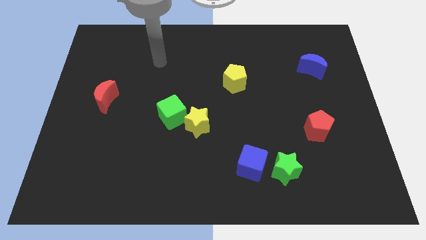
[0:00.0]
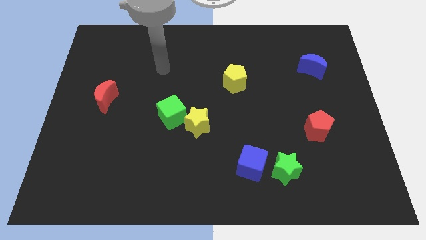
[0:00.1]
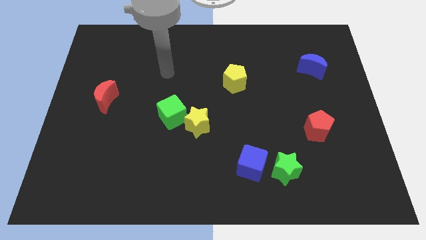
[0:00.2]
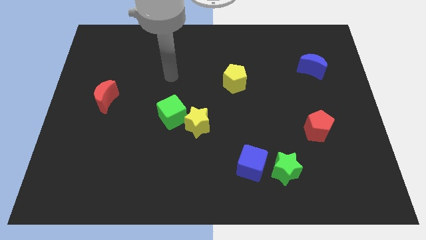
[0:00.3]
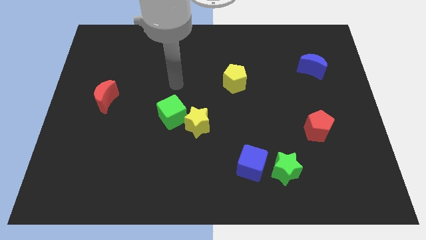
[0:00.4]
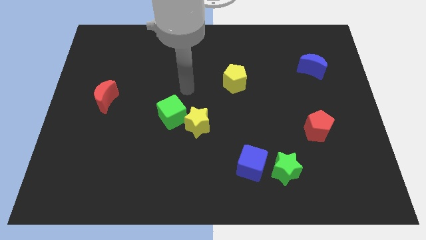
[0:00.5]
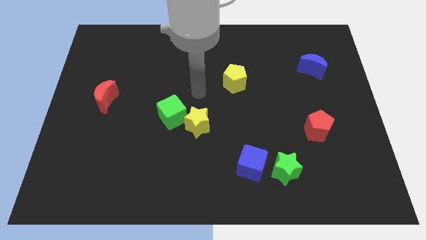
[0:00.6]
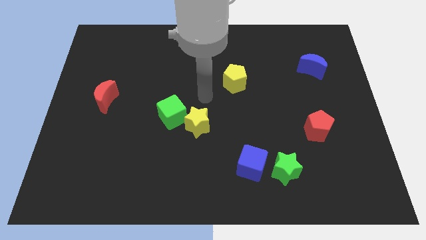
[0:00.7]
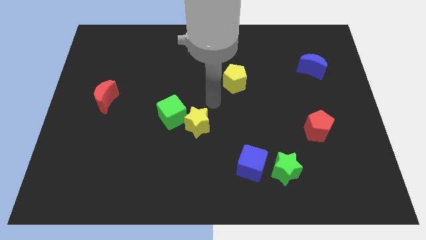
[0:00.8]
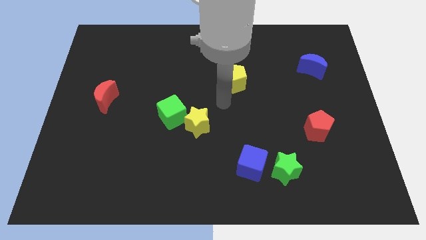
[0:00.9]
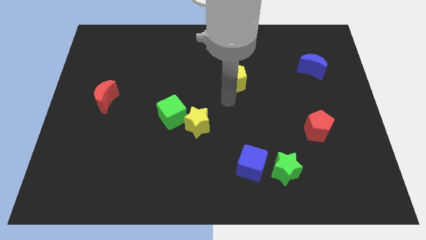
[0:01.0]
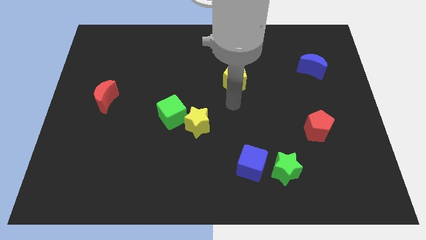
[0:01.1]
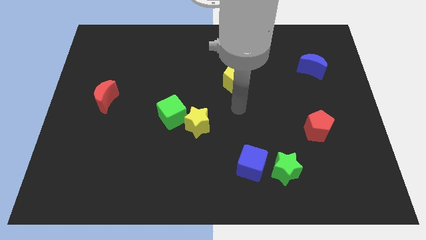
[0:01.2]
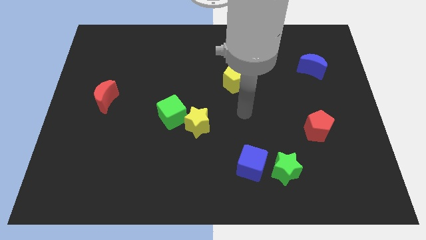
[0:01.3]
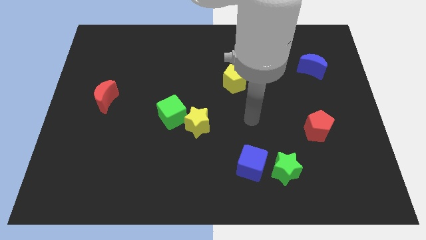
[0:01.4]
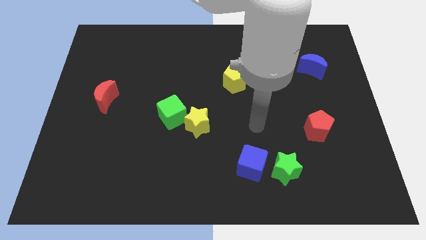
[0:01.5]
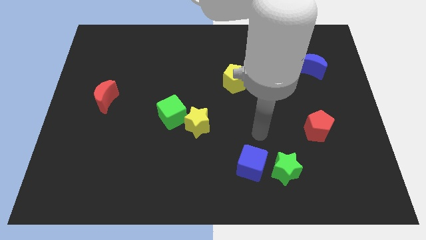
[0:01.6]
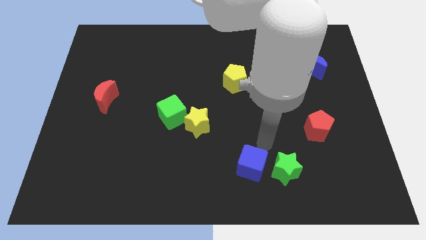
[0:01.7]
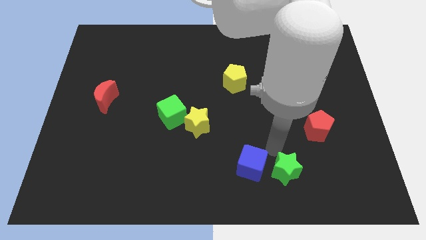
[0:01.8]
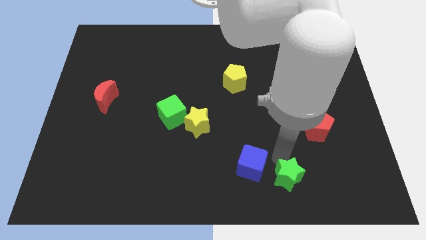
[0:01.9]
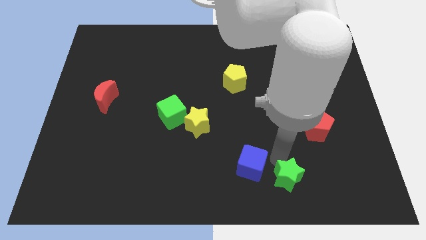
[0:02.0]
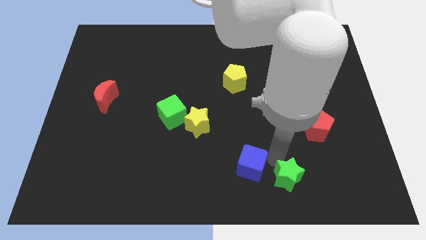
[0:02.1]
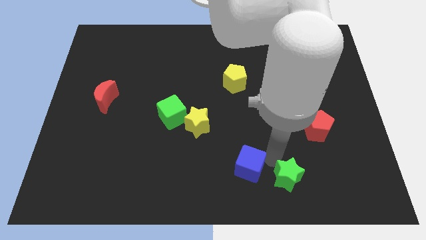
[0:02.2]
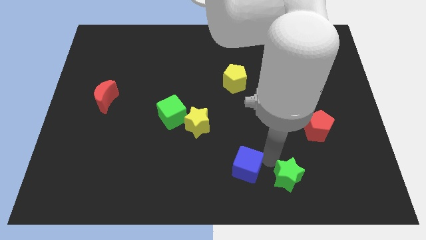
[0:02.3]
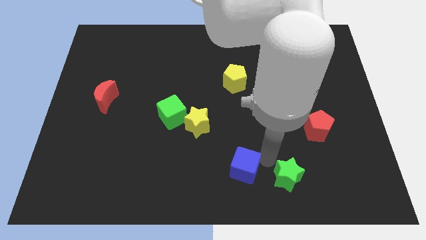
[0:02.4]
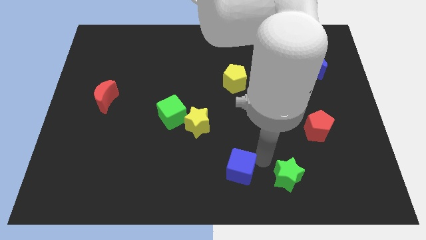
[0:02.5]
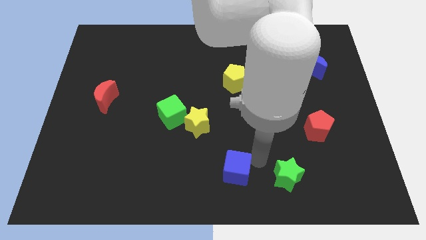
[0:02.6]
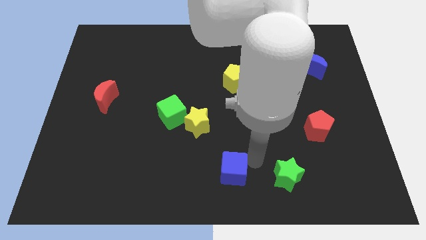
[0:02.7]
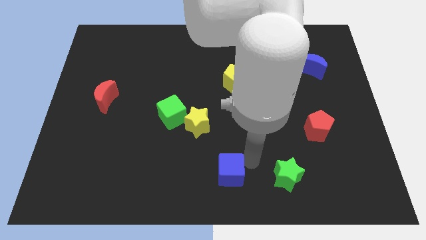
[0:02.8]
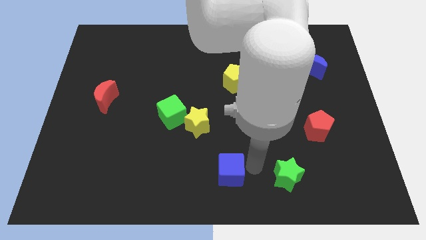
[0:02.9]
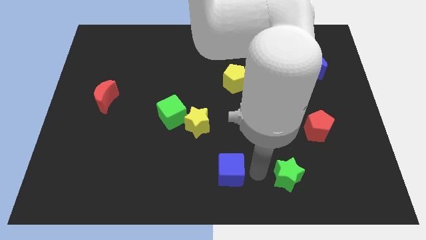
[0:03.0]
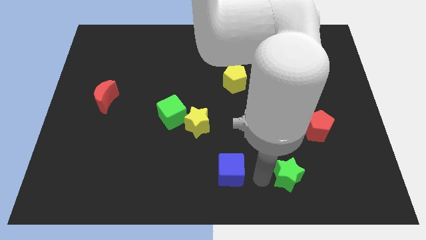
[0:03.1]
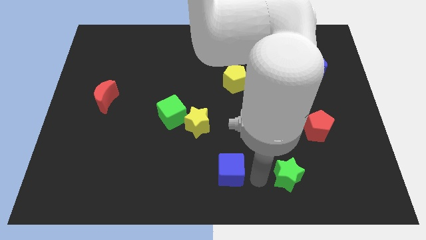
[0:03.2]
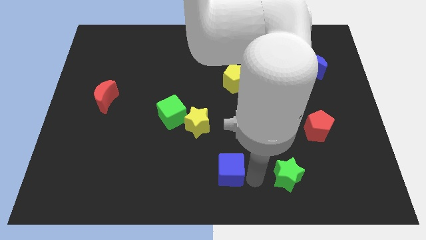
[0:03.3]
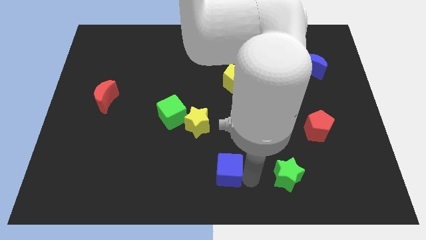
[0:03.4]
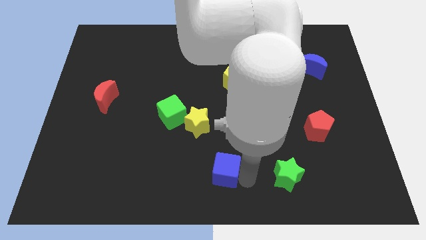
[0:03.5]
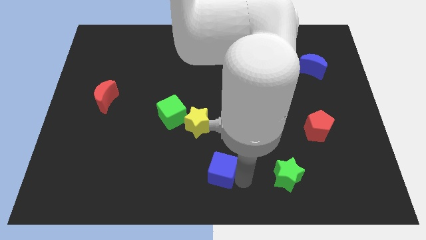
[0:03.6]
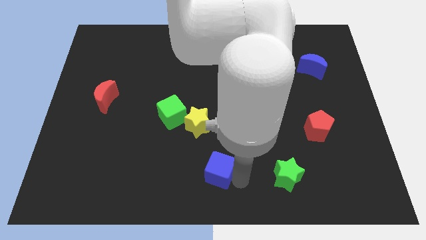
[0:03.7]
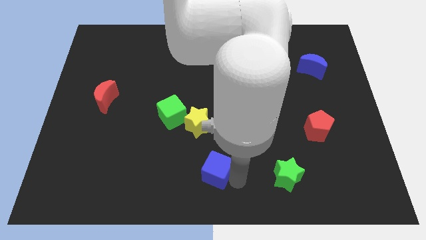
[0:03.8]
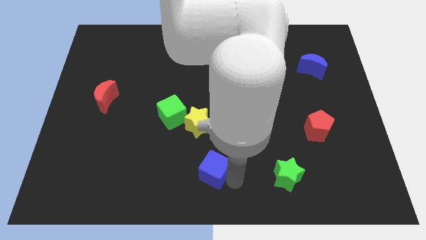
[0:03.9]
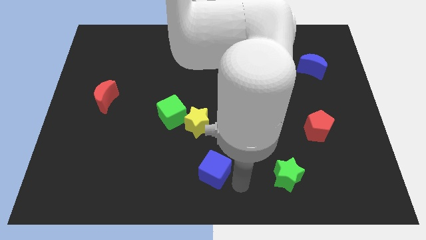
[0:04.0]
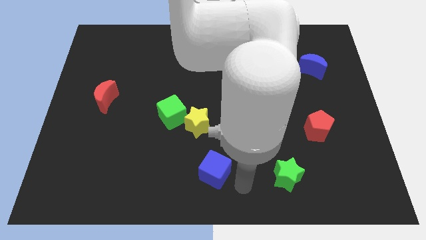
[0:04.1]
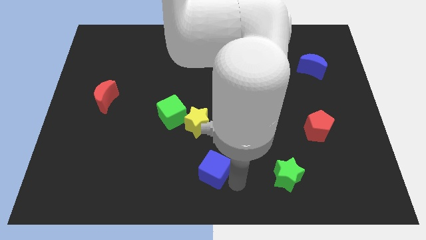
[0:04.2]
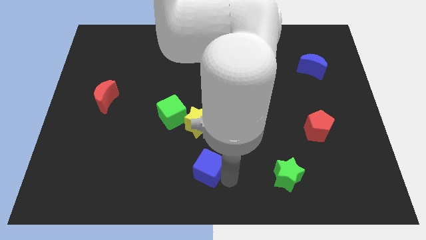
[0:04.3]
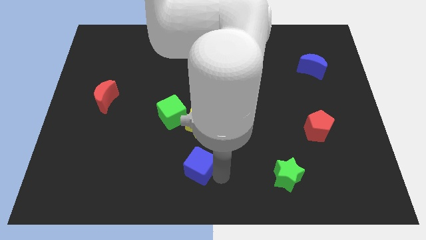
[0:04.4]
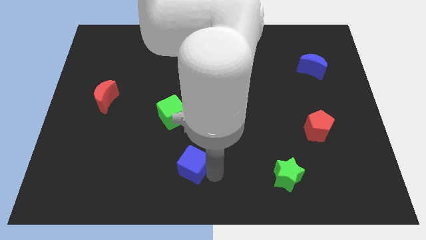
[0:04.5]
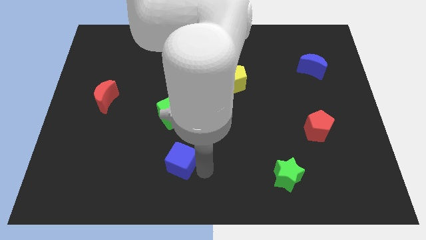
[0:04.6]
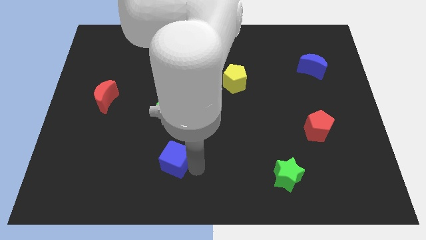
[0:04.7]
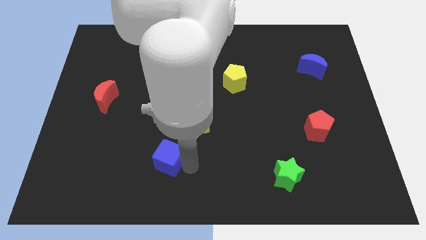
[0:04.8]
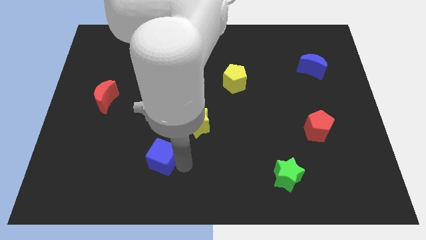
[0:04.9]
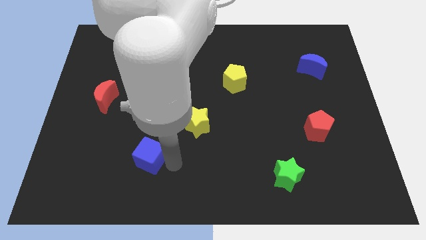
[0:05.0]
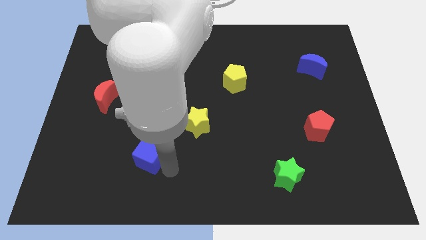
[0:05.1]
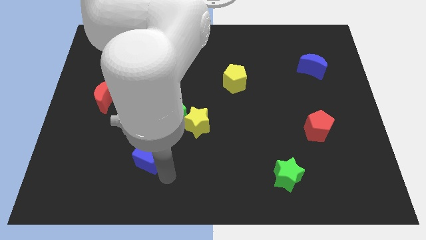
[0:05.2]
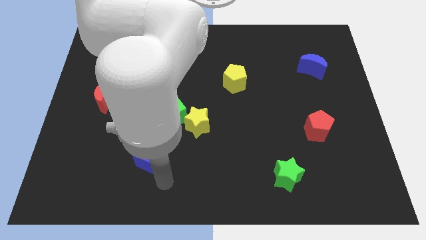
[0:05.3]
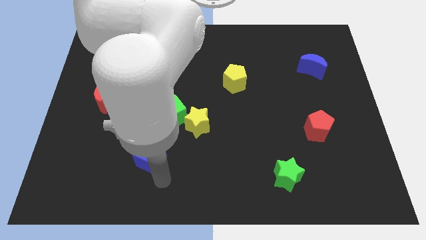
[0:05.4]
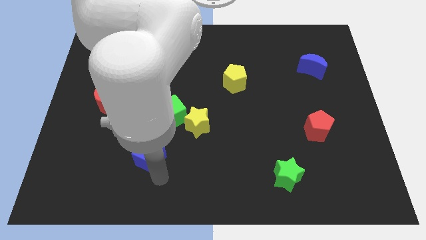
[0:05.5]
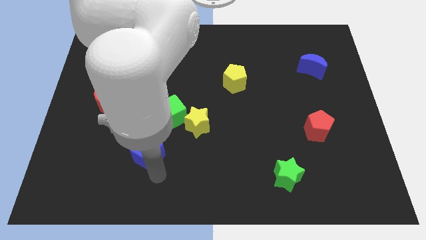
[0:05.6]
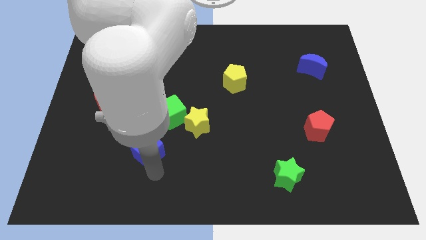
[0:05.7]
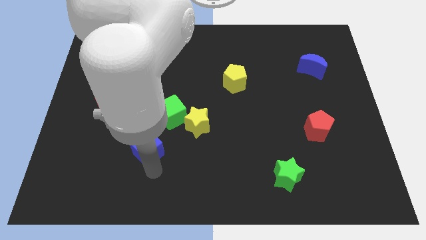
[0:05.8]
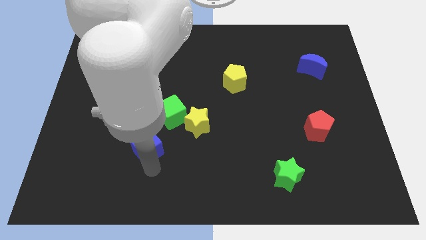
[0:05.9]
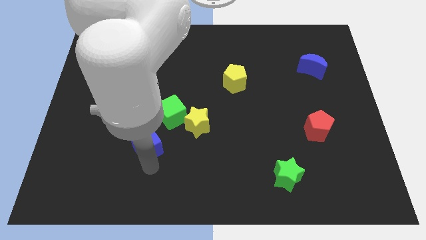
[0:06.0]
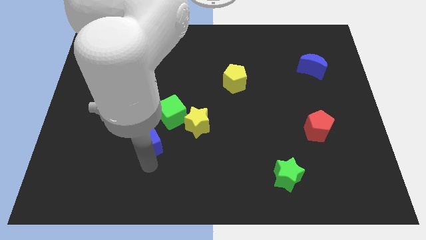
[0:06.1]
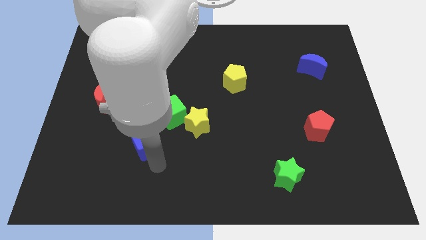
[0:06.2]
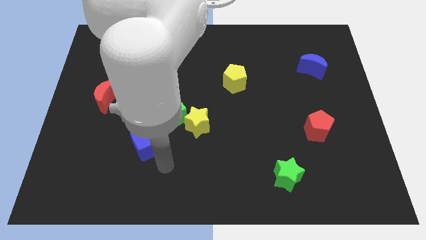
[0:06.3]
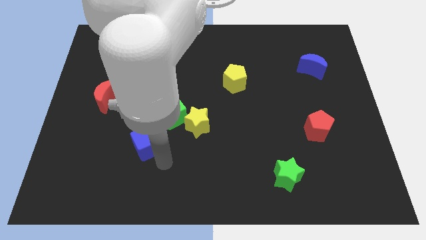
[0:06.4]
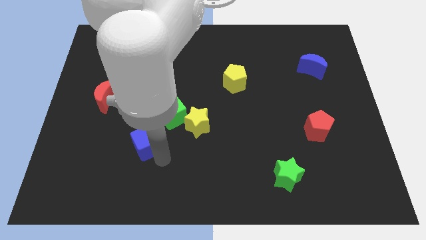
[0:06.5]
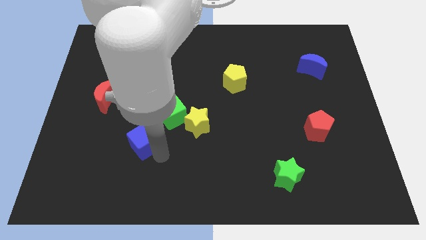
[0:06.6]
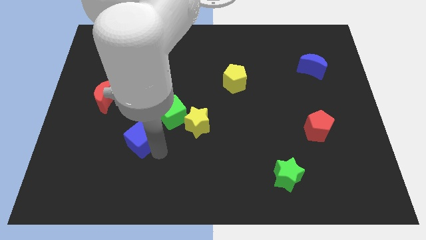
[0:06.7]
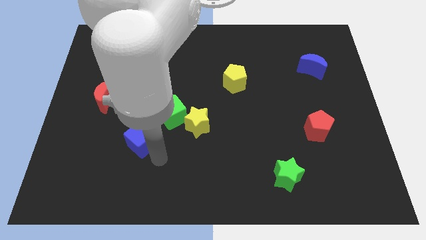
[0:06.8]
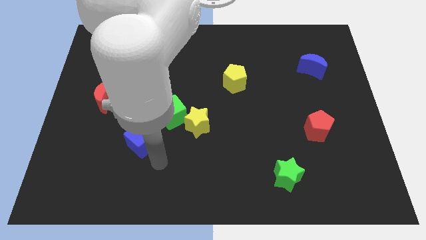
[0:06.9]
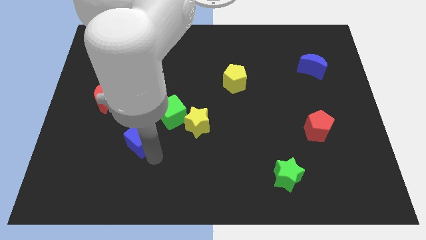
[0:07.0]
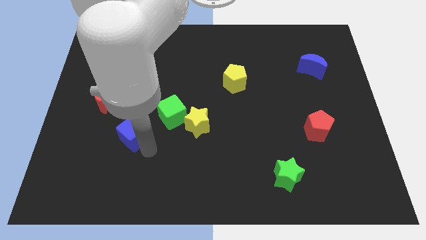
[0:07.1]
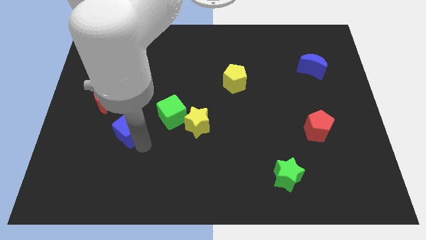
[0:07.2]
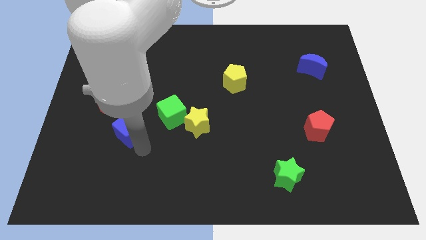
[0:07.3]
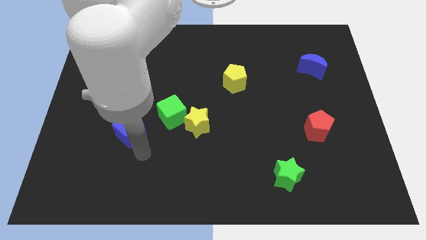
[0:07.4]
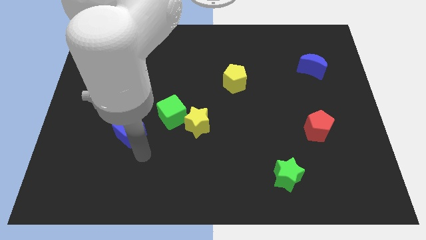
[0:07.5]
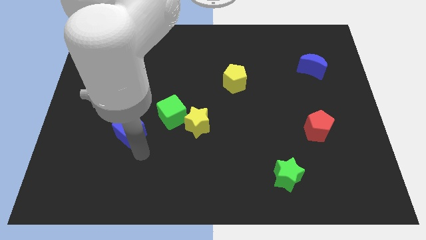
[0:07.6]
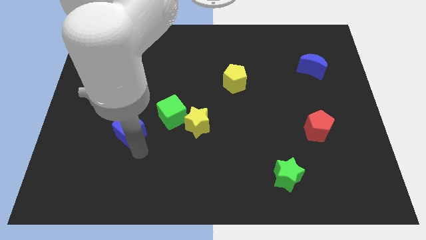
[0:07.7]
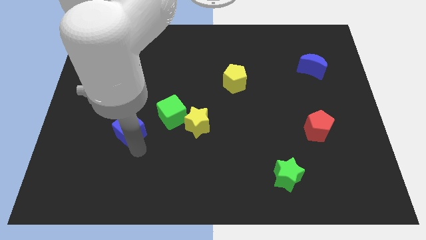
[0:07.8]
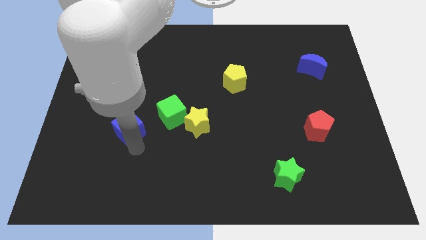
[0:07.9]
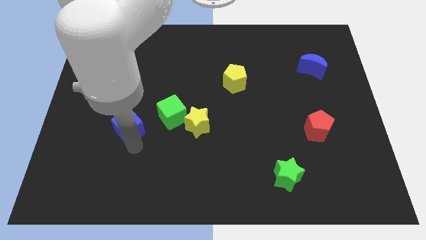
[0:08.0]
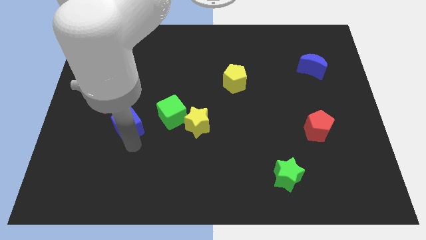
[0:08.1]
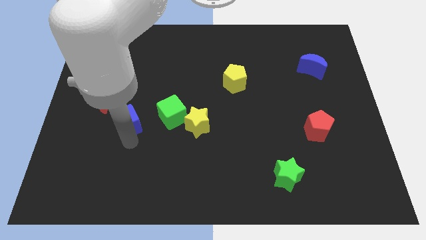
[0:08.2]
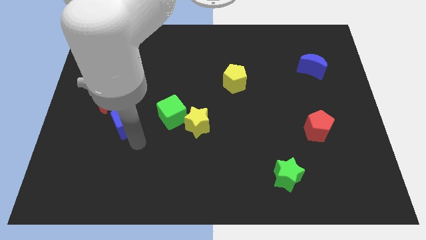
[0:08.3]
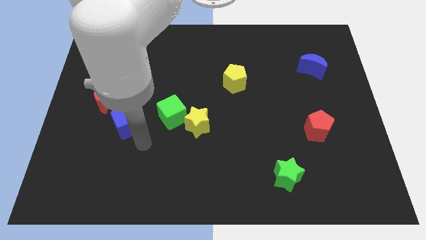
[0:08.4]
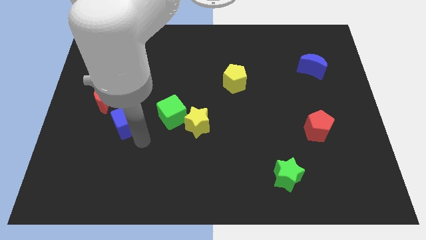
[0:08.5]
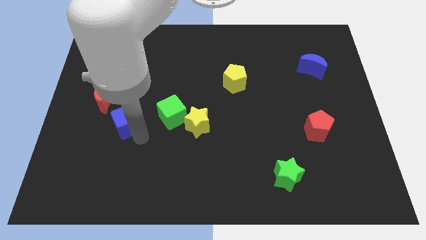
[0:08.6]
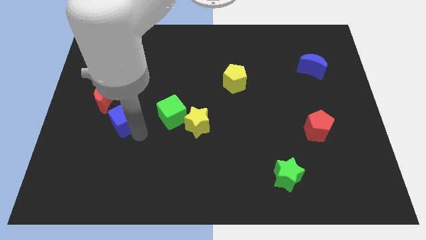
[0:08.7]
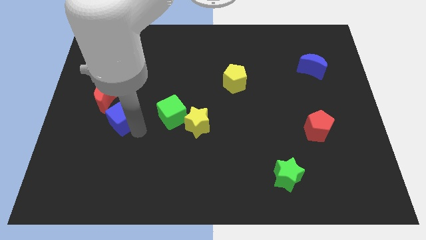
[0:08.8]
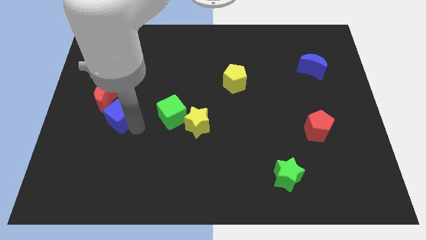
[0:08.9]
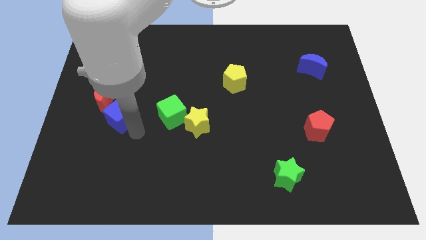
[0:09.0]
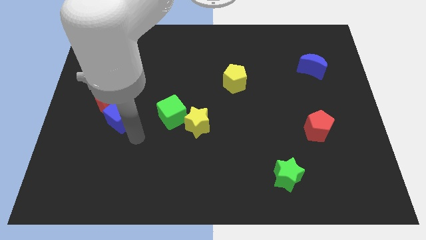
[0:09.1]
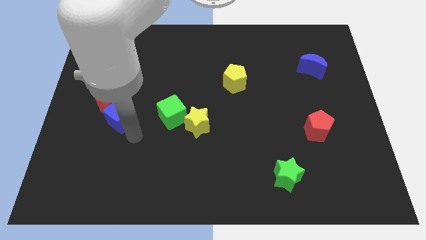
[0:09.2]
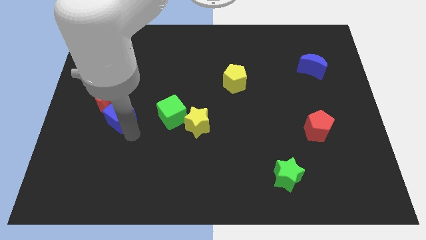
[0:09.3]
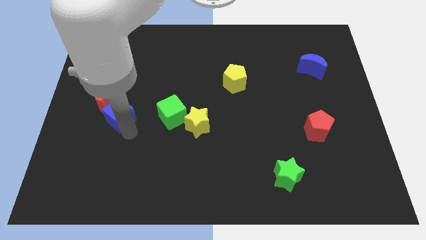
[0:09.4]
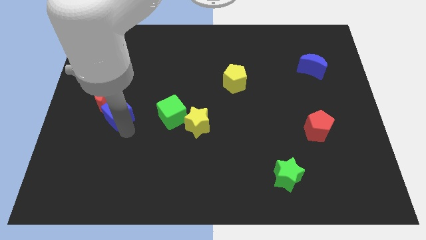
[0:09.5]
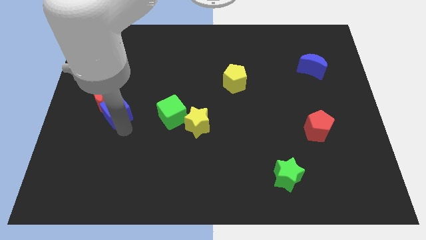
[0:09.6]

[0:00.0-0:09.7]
put the blue cube towards the red moon
